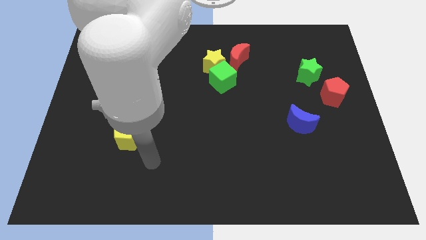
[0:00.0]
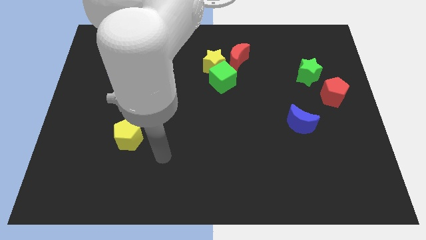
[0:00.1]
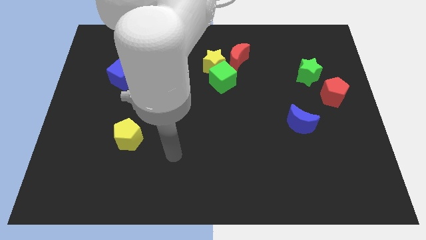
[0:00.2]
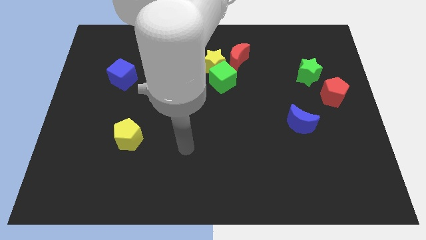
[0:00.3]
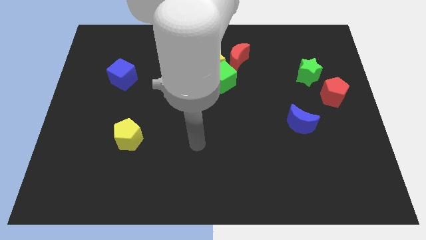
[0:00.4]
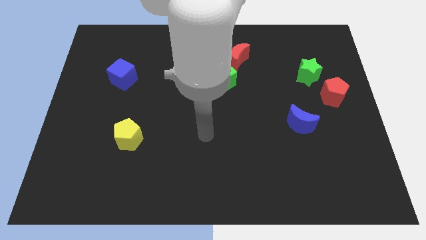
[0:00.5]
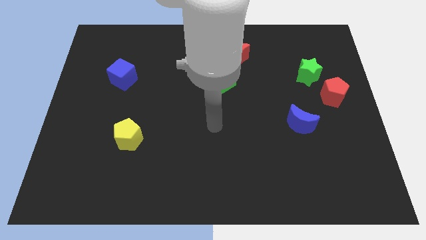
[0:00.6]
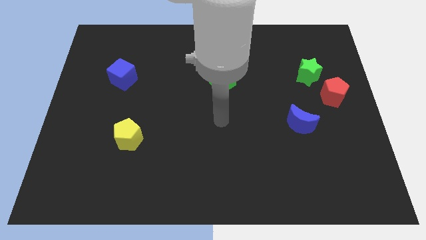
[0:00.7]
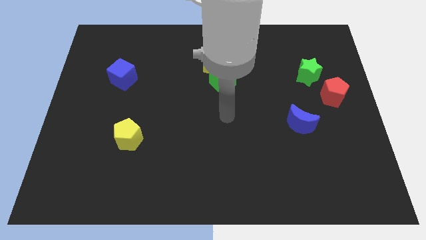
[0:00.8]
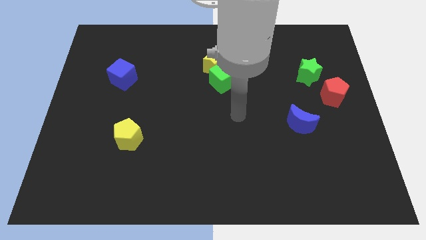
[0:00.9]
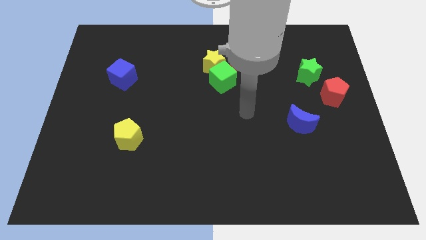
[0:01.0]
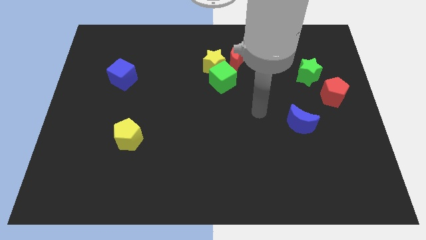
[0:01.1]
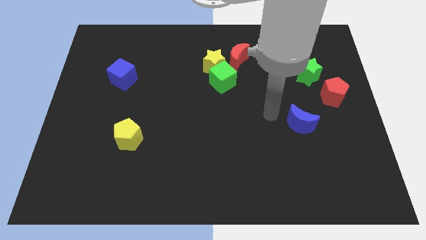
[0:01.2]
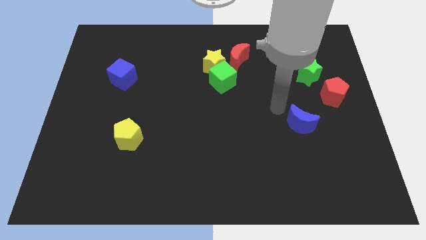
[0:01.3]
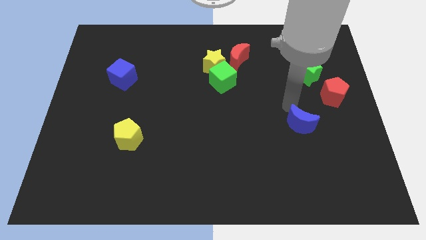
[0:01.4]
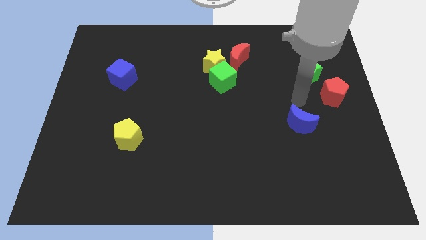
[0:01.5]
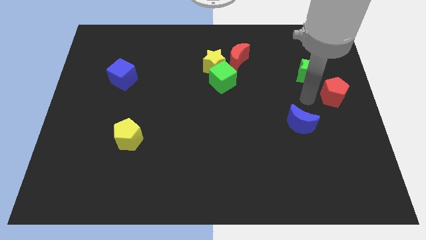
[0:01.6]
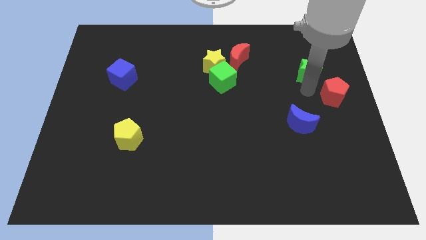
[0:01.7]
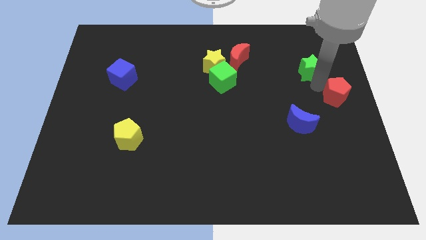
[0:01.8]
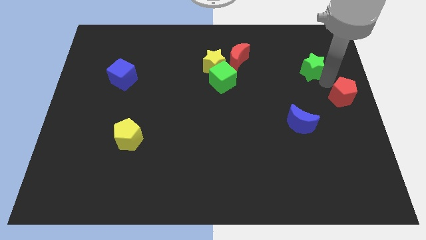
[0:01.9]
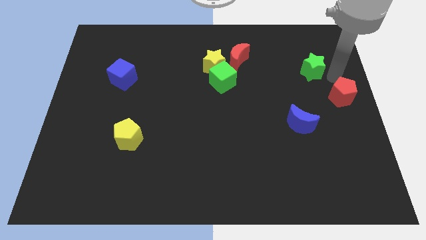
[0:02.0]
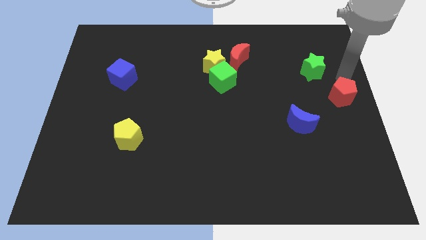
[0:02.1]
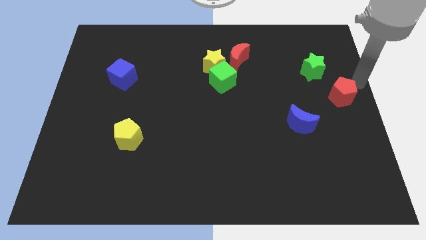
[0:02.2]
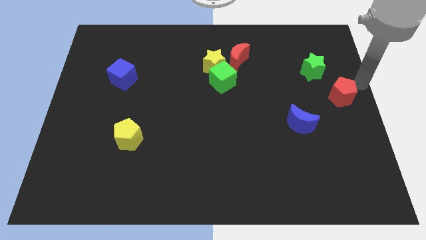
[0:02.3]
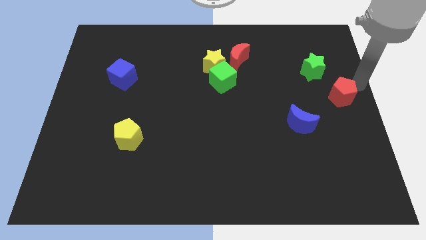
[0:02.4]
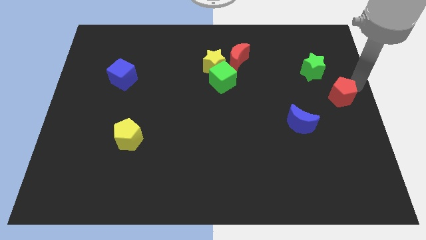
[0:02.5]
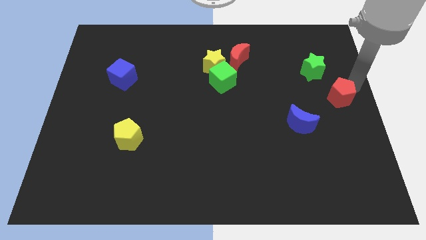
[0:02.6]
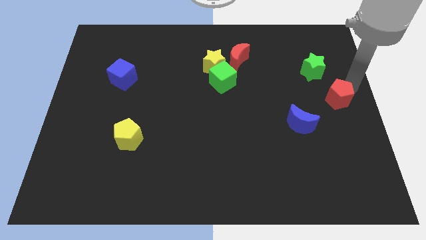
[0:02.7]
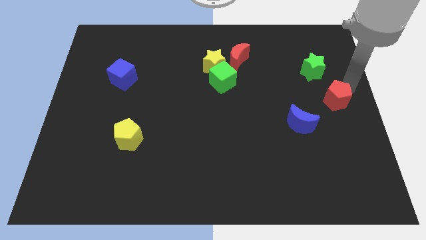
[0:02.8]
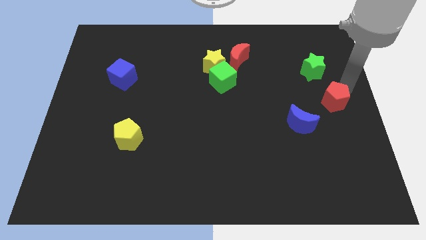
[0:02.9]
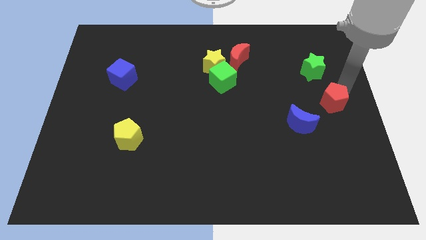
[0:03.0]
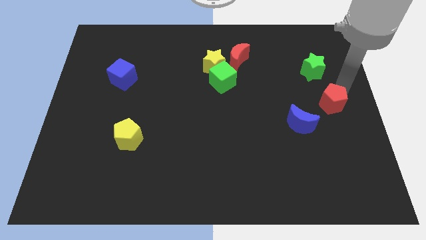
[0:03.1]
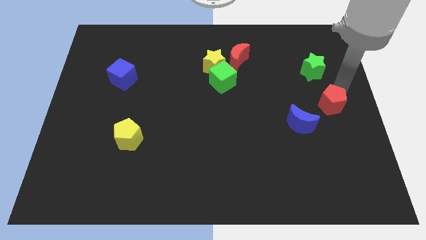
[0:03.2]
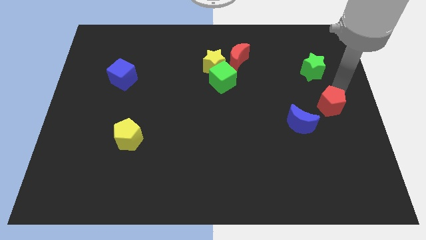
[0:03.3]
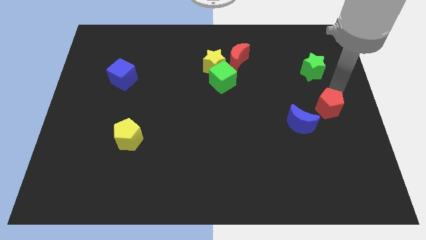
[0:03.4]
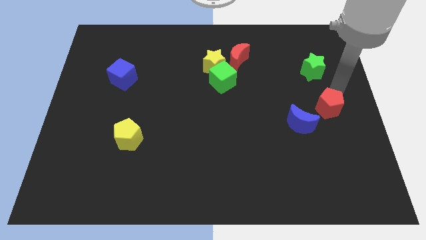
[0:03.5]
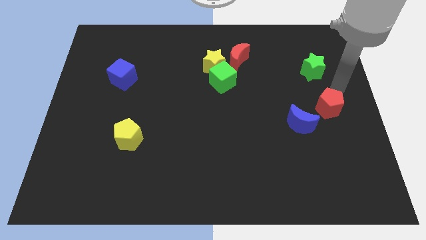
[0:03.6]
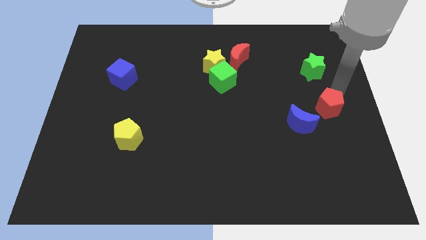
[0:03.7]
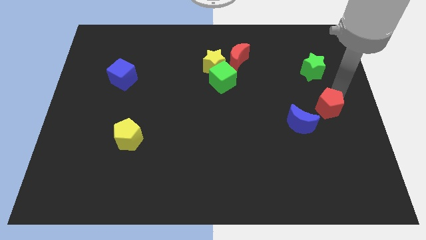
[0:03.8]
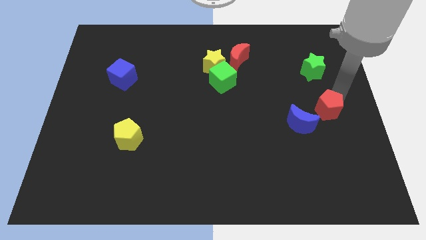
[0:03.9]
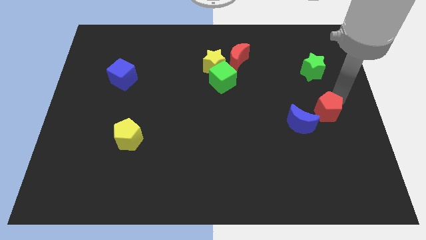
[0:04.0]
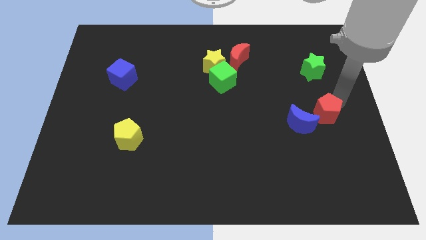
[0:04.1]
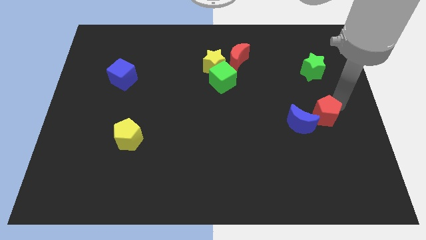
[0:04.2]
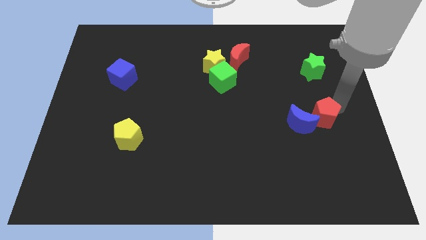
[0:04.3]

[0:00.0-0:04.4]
move the red pentagon a bit down and to the left diagonally

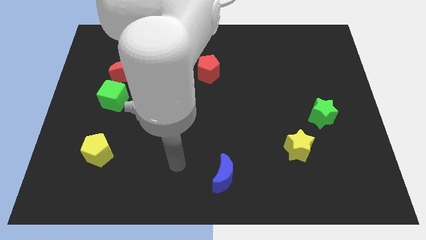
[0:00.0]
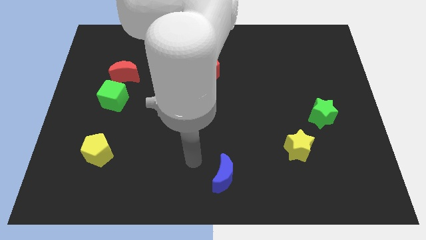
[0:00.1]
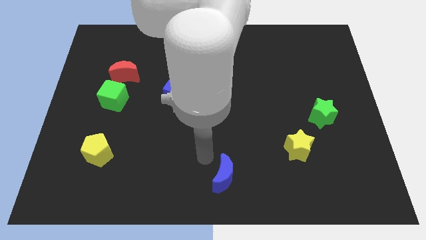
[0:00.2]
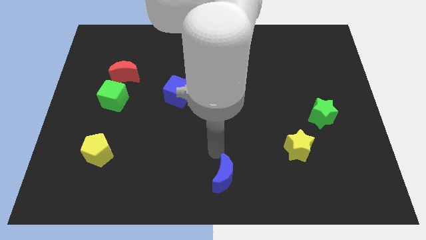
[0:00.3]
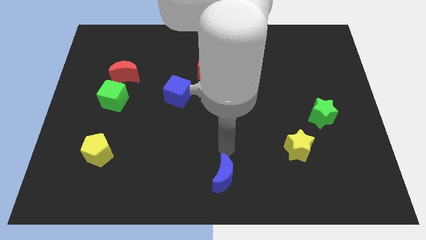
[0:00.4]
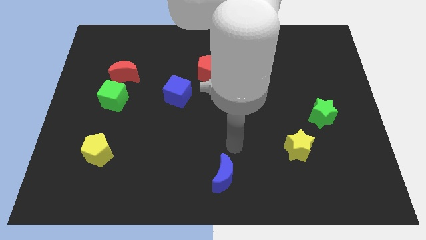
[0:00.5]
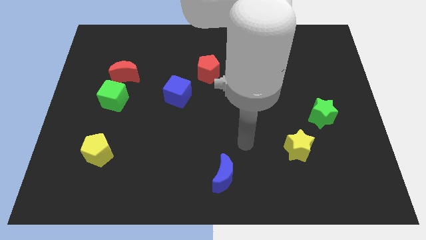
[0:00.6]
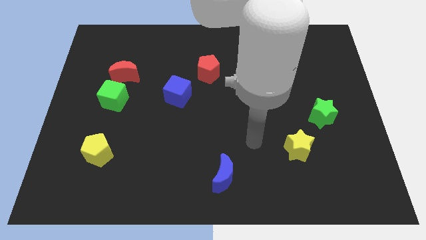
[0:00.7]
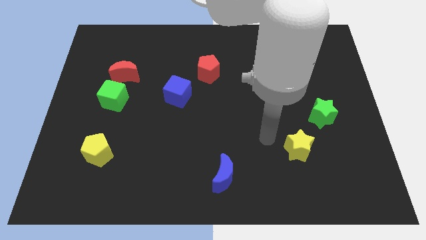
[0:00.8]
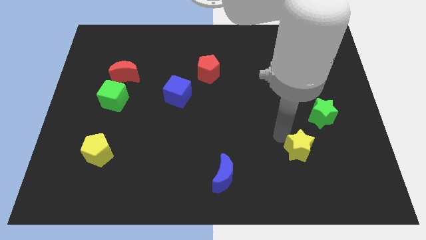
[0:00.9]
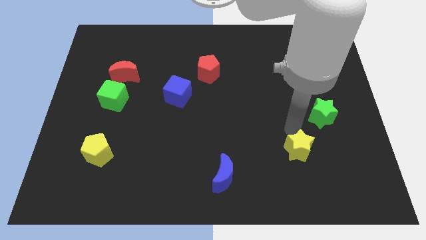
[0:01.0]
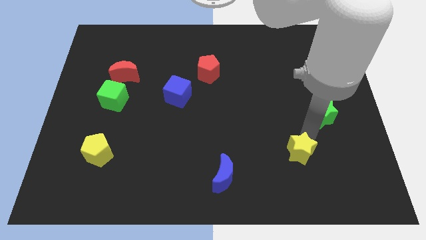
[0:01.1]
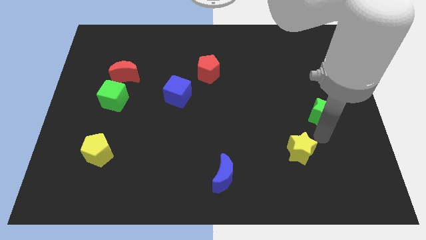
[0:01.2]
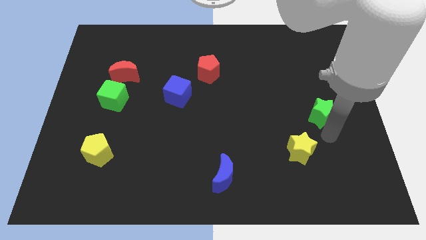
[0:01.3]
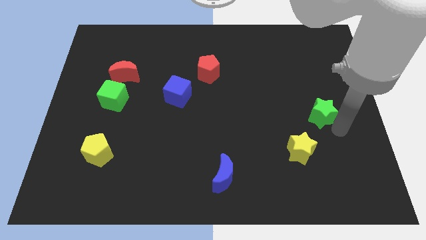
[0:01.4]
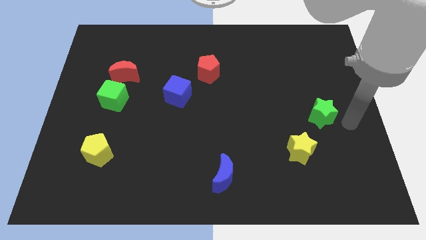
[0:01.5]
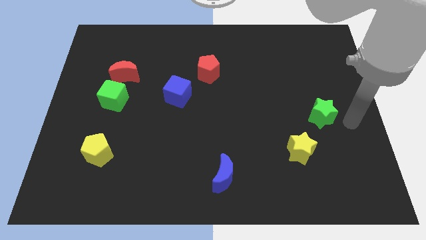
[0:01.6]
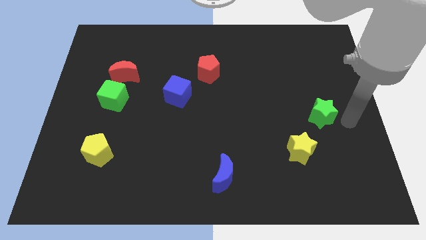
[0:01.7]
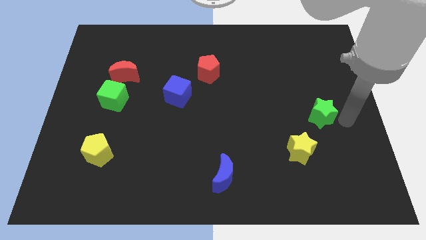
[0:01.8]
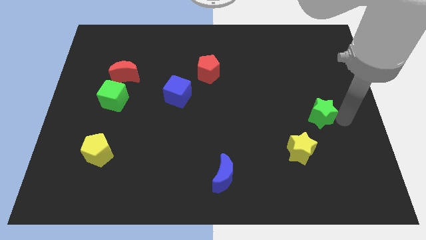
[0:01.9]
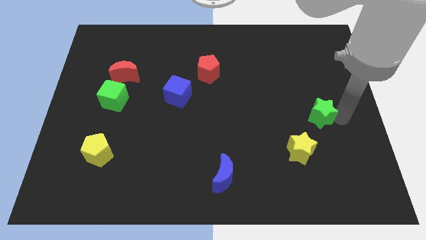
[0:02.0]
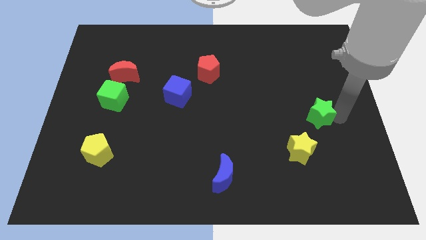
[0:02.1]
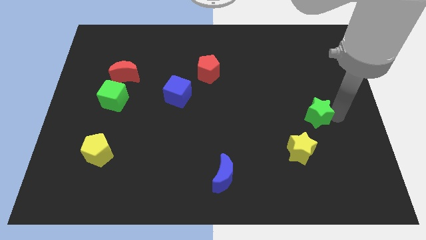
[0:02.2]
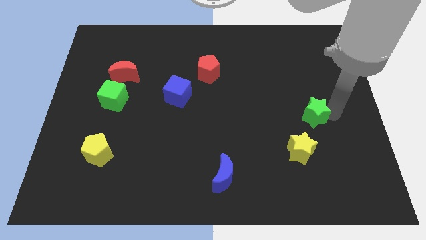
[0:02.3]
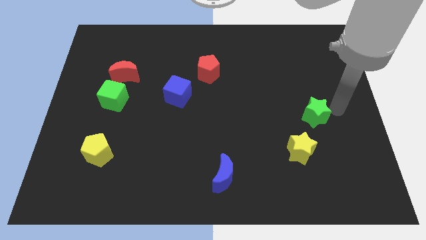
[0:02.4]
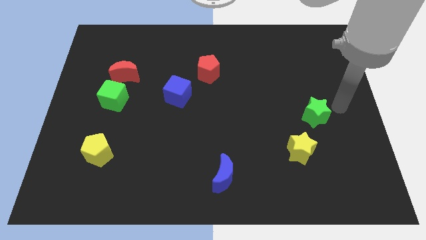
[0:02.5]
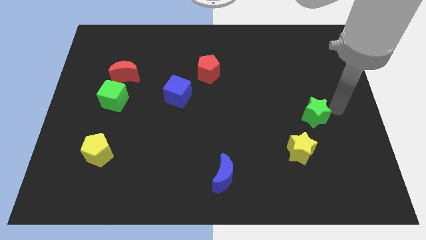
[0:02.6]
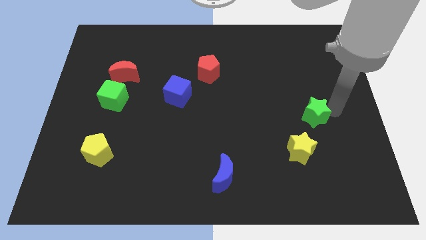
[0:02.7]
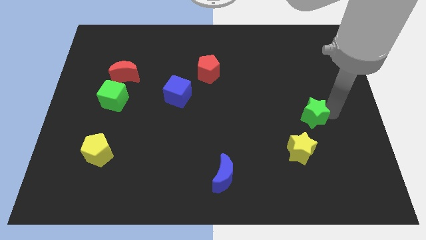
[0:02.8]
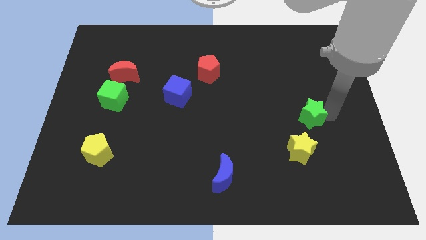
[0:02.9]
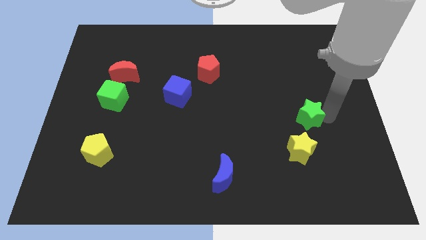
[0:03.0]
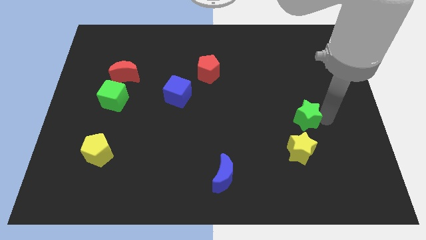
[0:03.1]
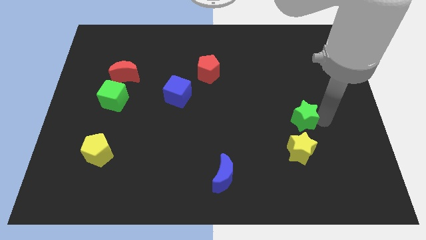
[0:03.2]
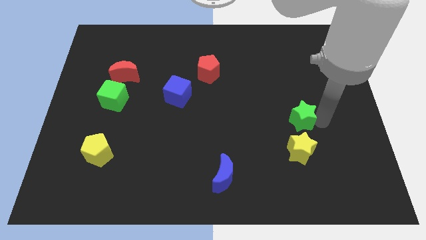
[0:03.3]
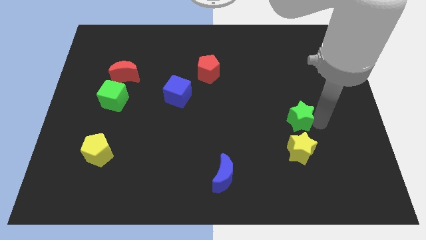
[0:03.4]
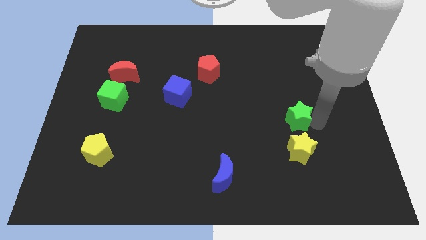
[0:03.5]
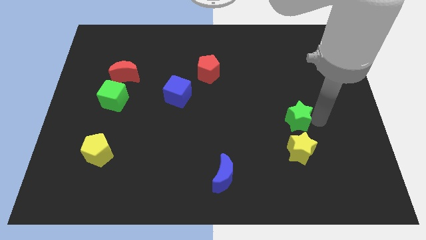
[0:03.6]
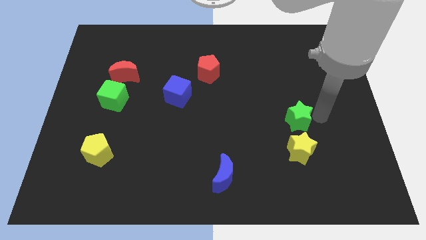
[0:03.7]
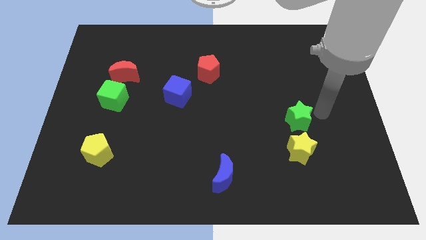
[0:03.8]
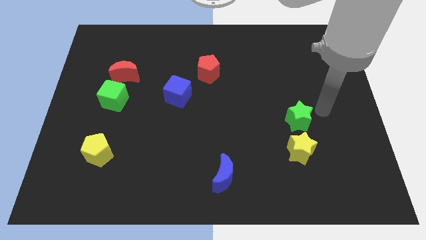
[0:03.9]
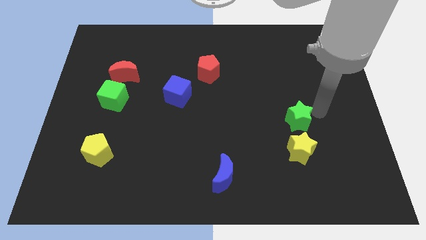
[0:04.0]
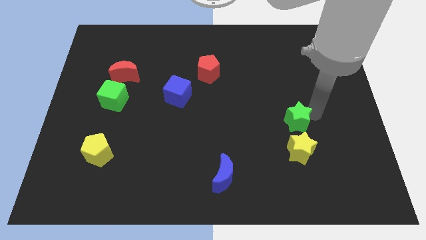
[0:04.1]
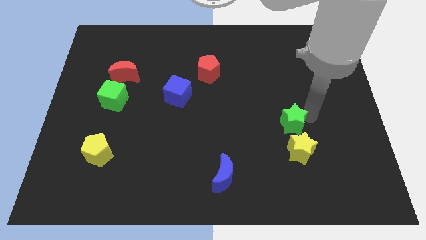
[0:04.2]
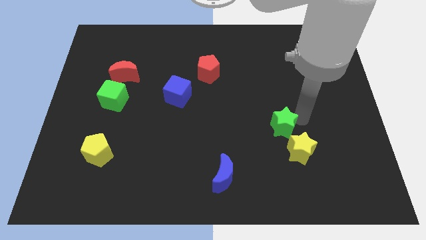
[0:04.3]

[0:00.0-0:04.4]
push the green star somewhat down and to the left
